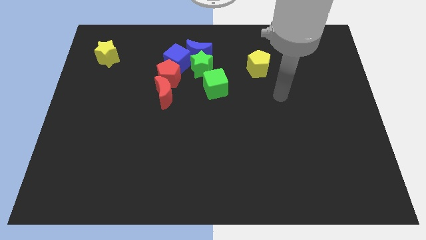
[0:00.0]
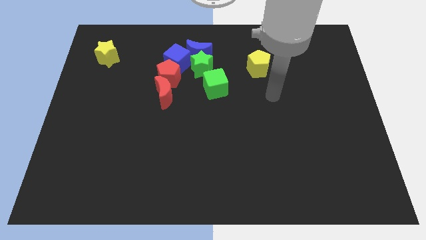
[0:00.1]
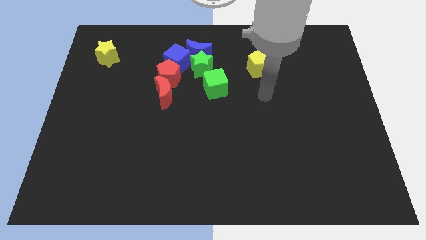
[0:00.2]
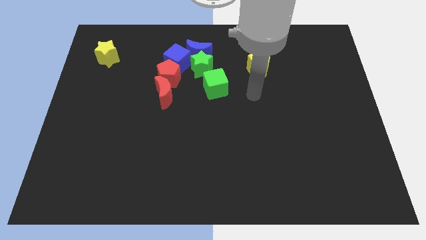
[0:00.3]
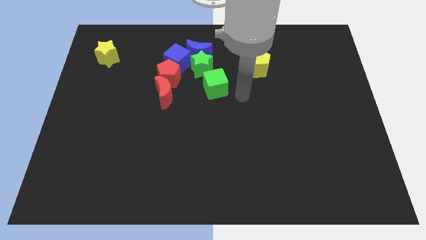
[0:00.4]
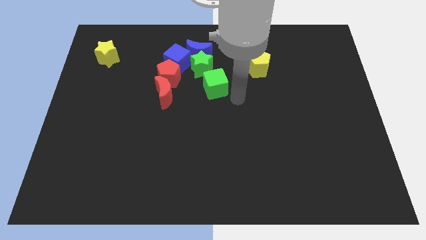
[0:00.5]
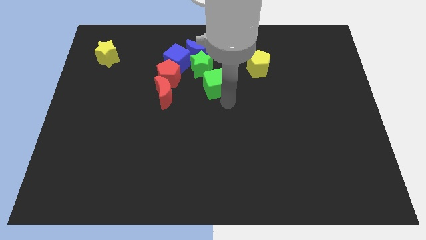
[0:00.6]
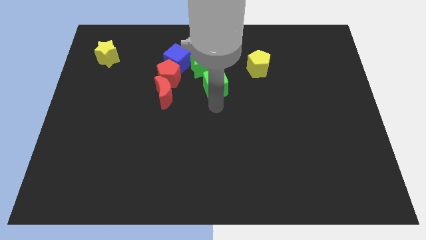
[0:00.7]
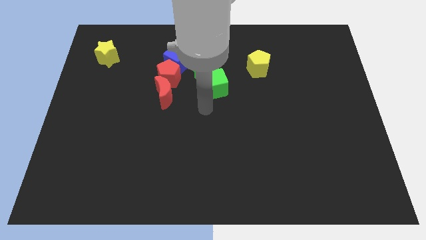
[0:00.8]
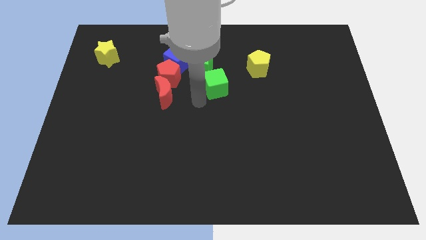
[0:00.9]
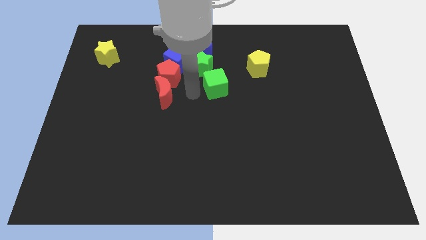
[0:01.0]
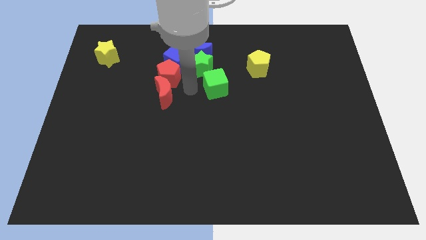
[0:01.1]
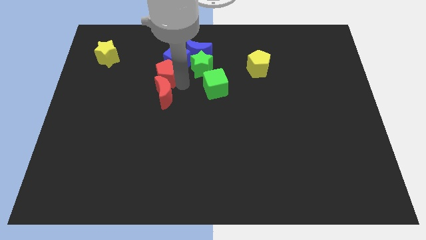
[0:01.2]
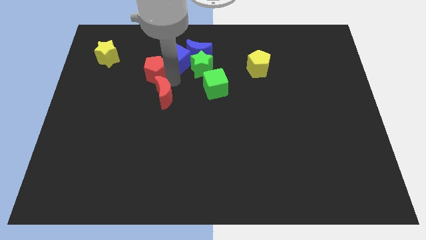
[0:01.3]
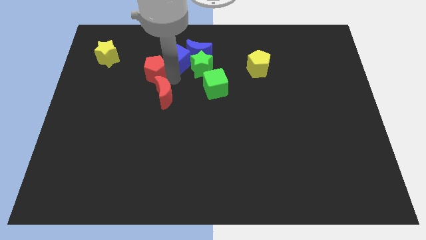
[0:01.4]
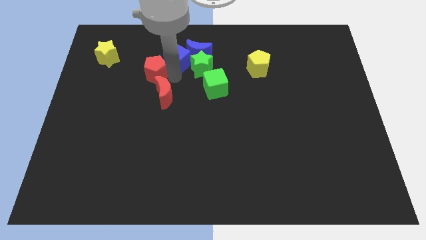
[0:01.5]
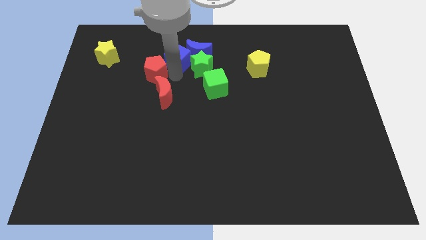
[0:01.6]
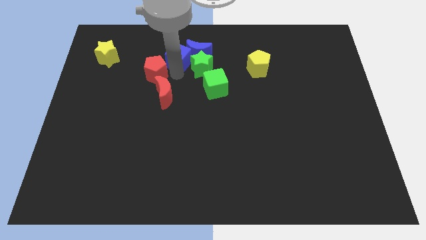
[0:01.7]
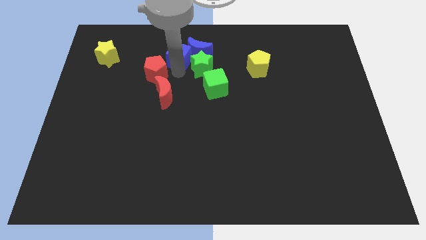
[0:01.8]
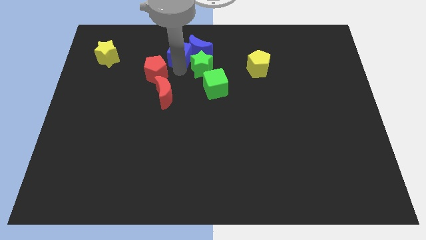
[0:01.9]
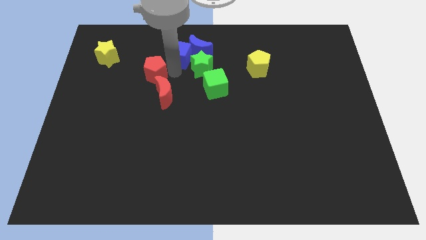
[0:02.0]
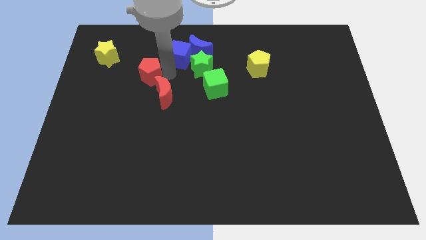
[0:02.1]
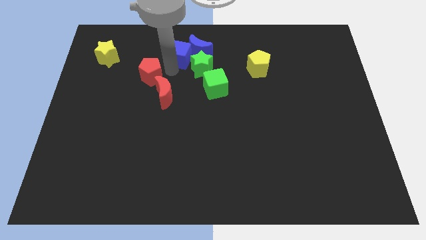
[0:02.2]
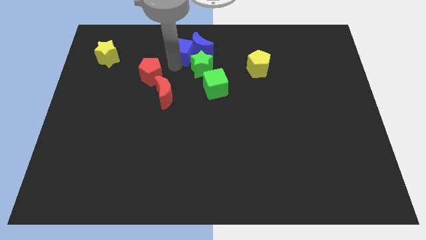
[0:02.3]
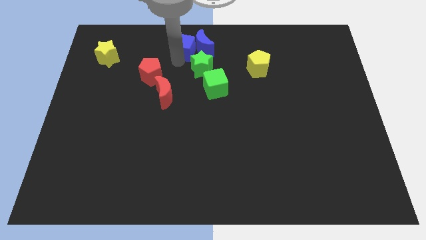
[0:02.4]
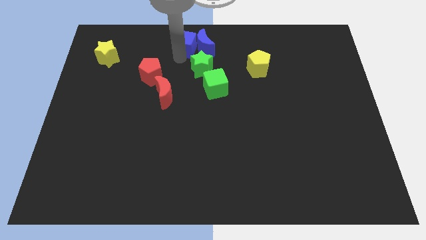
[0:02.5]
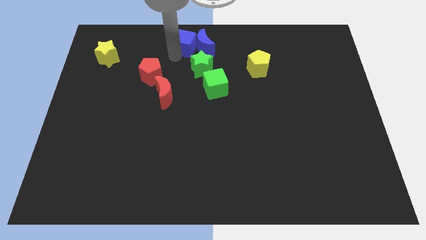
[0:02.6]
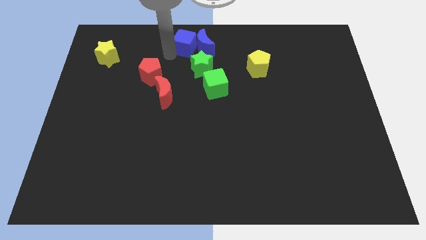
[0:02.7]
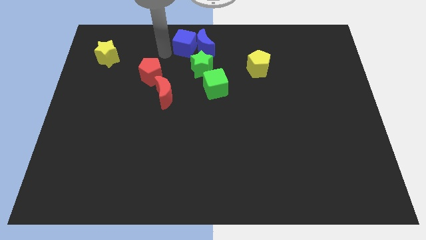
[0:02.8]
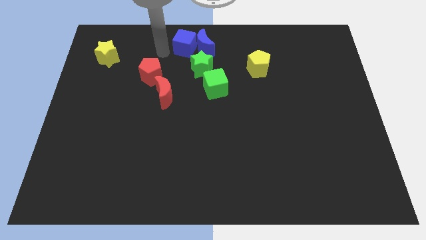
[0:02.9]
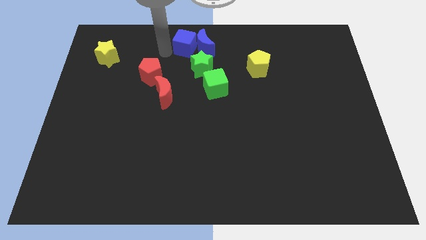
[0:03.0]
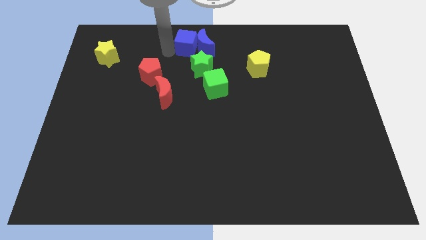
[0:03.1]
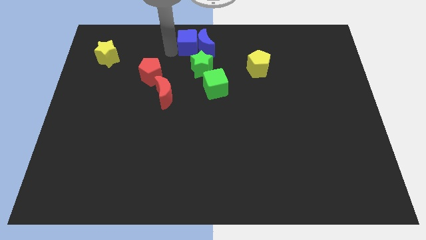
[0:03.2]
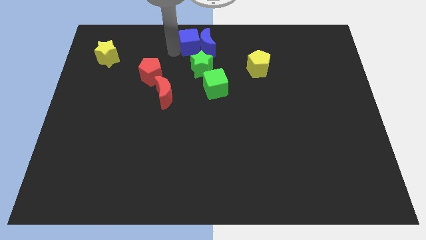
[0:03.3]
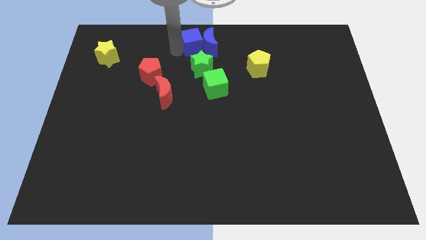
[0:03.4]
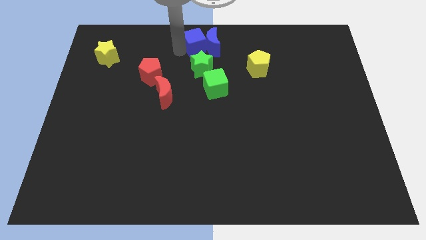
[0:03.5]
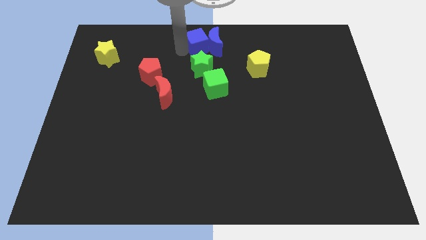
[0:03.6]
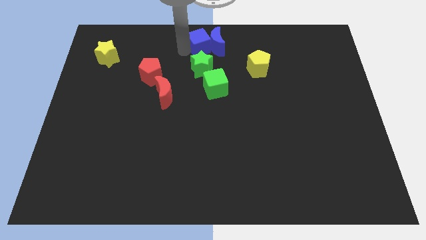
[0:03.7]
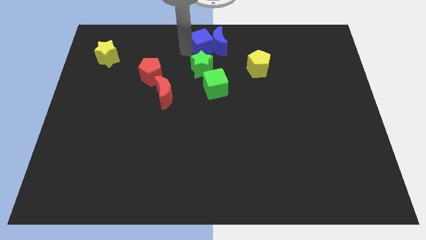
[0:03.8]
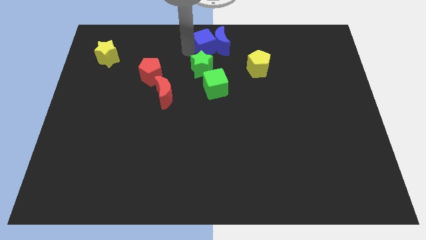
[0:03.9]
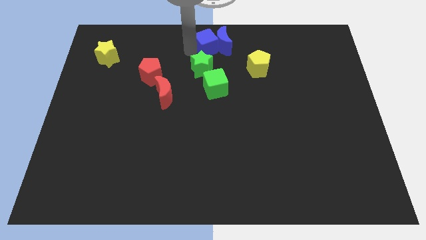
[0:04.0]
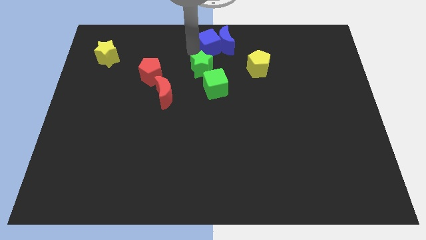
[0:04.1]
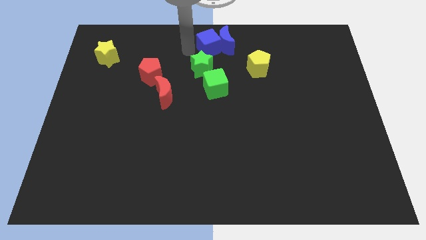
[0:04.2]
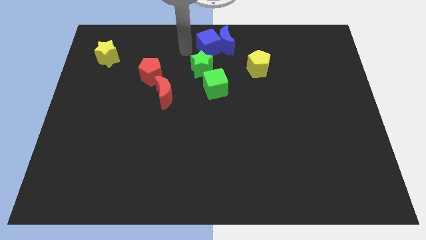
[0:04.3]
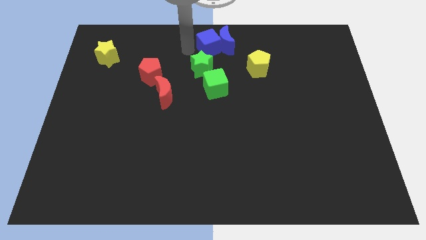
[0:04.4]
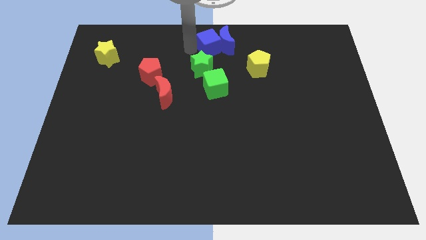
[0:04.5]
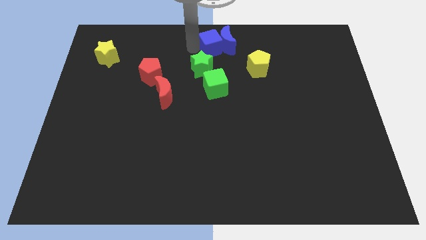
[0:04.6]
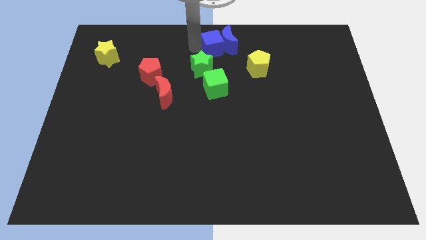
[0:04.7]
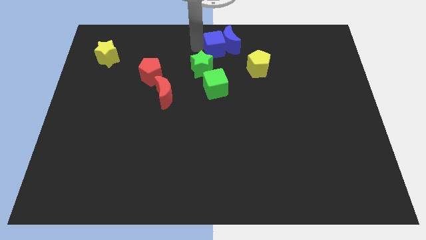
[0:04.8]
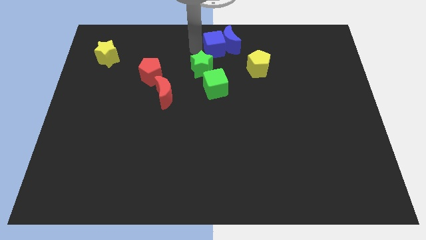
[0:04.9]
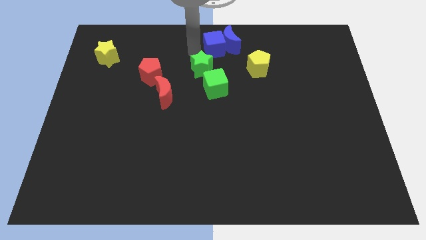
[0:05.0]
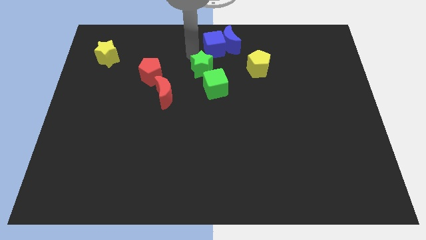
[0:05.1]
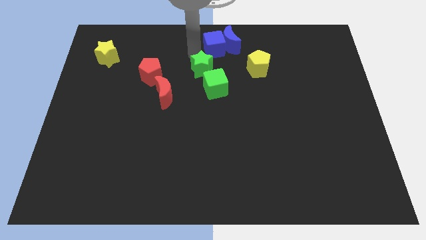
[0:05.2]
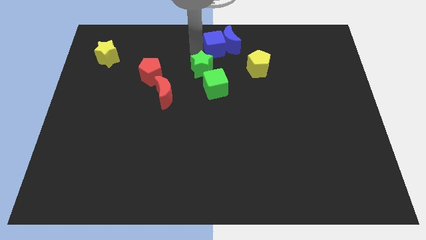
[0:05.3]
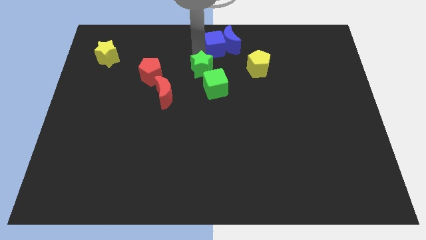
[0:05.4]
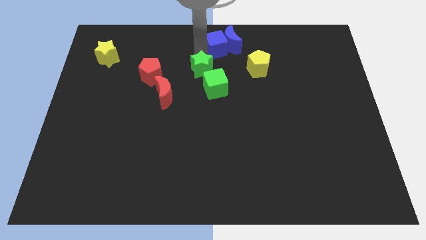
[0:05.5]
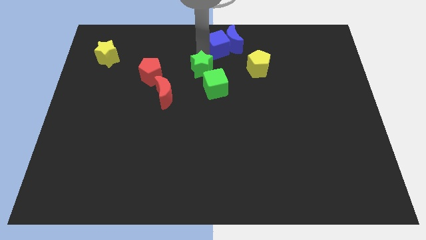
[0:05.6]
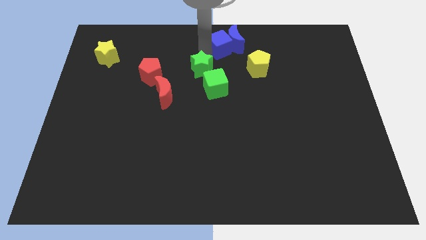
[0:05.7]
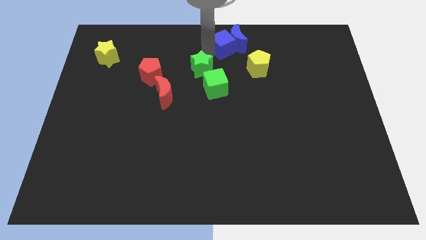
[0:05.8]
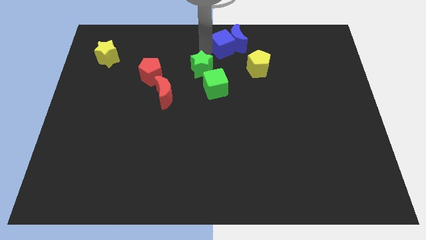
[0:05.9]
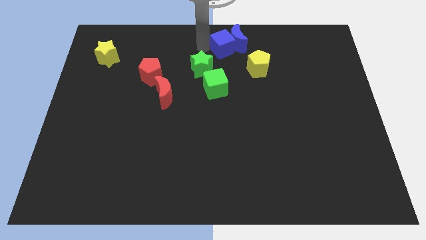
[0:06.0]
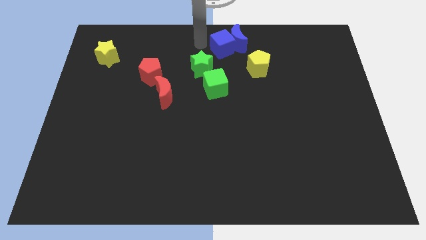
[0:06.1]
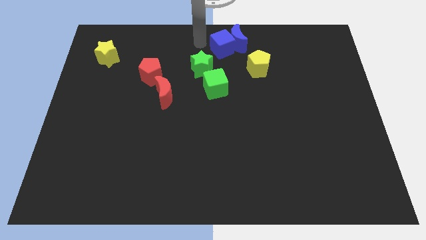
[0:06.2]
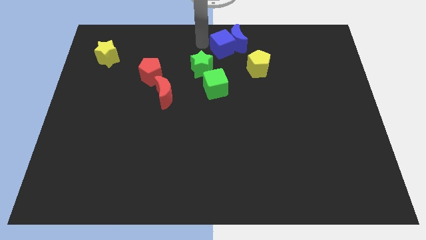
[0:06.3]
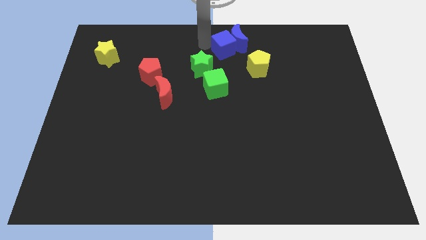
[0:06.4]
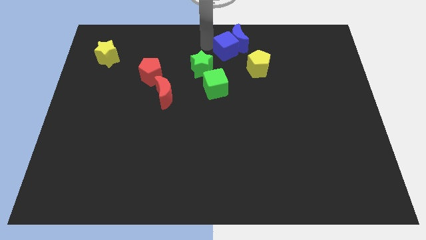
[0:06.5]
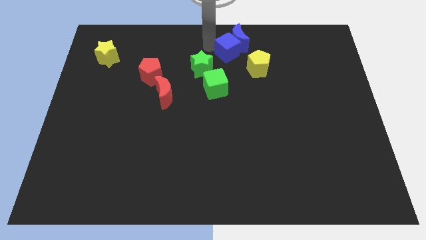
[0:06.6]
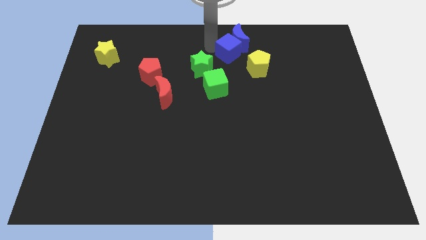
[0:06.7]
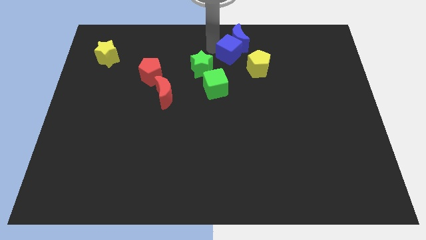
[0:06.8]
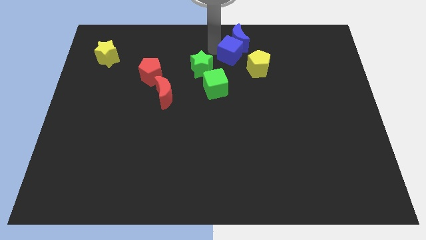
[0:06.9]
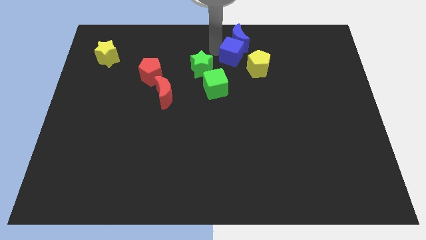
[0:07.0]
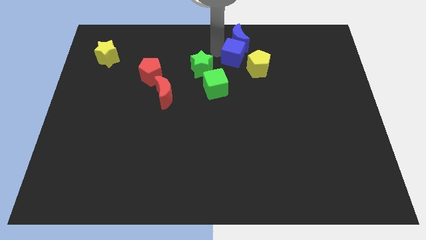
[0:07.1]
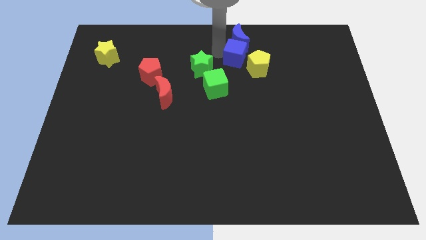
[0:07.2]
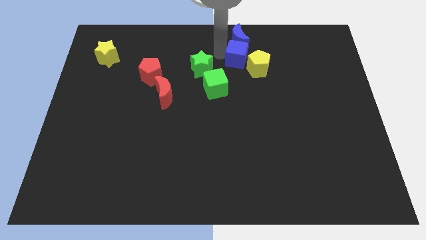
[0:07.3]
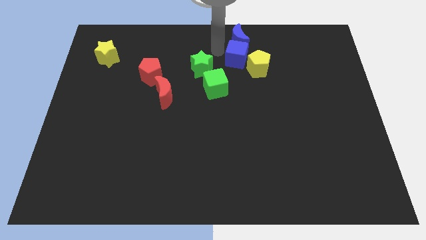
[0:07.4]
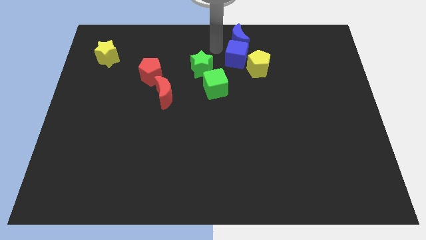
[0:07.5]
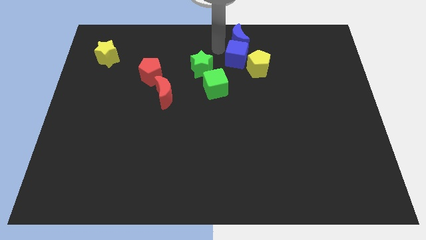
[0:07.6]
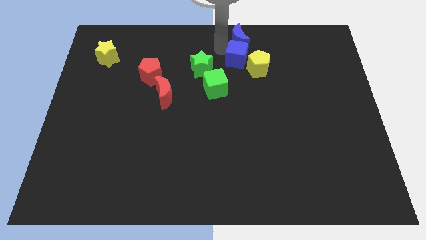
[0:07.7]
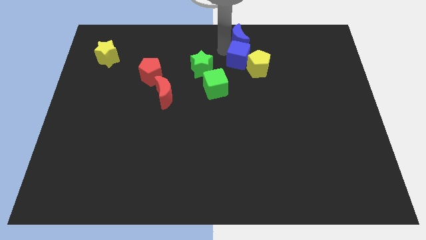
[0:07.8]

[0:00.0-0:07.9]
move the blue cube towards the yellow pentagon
